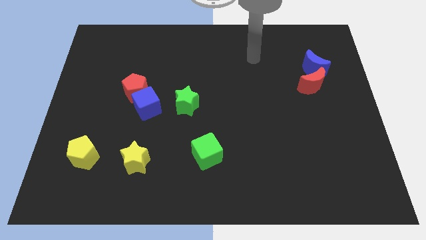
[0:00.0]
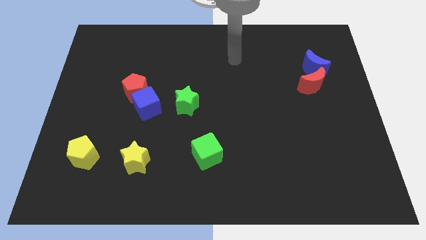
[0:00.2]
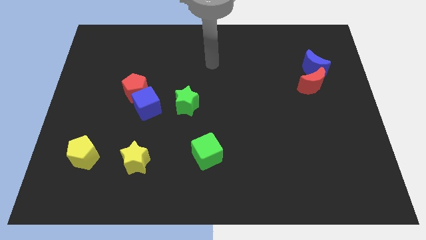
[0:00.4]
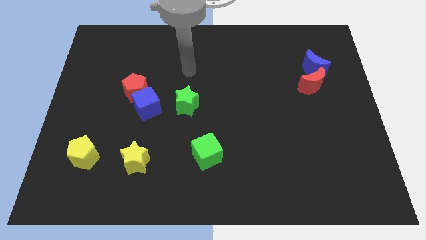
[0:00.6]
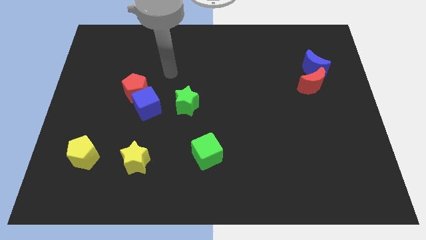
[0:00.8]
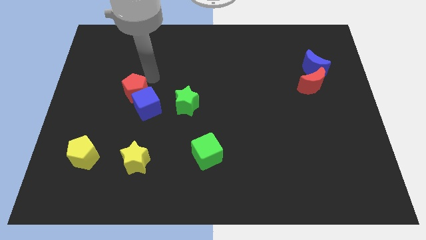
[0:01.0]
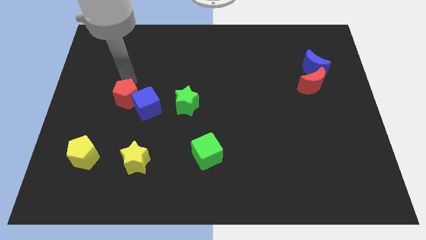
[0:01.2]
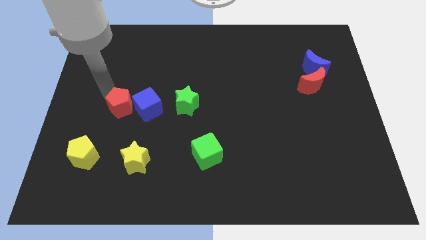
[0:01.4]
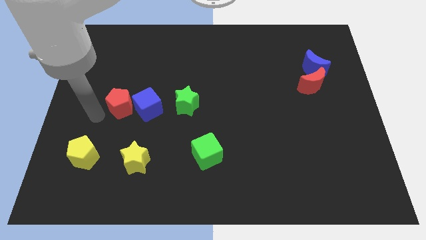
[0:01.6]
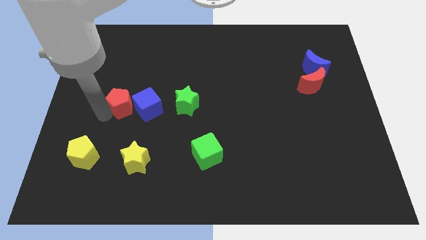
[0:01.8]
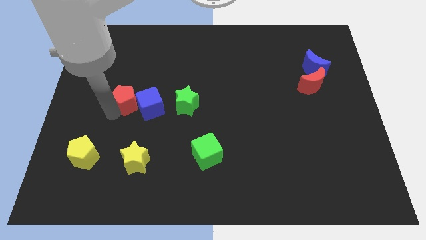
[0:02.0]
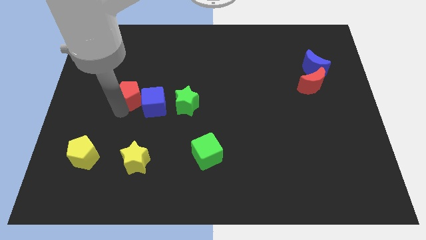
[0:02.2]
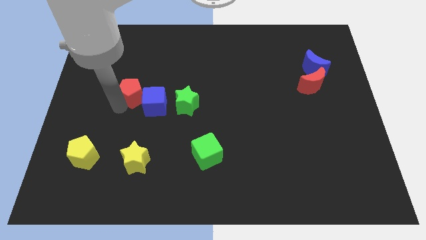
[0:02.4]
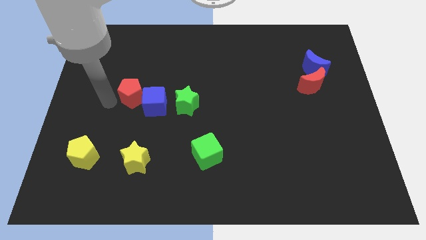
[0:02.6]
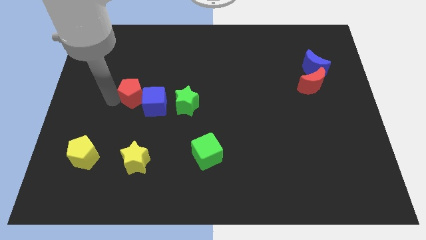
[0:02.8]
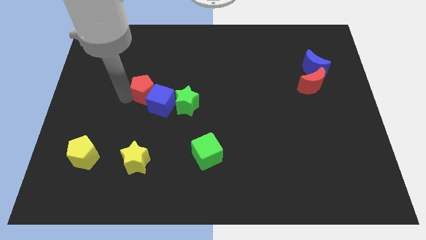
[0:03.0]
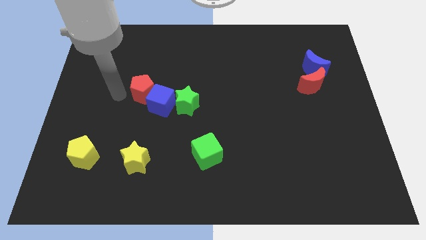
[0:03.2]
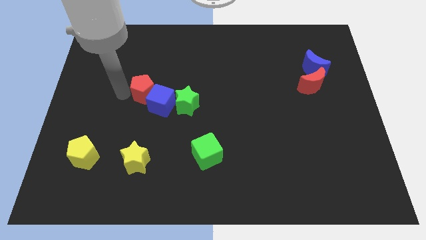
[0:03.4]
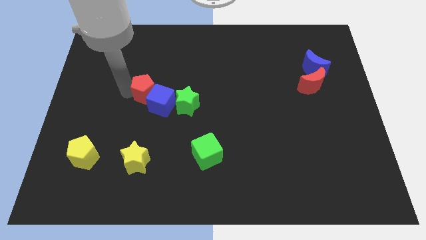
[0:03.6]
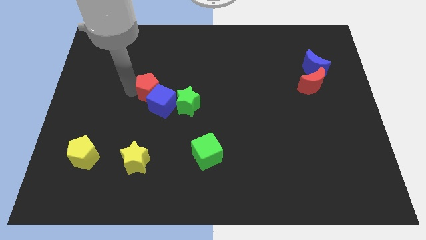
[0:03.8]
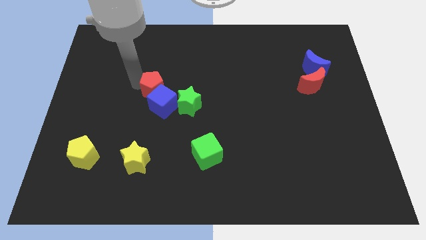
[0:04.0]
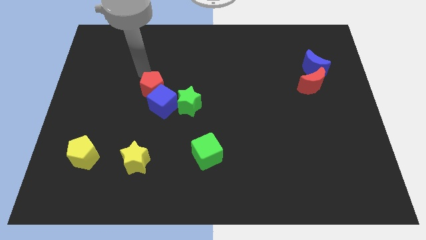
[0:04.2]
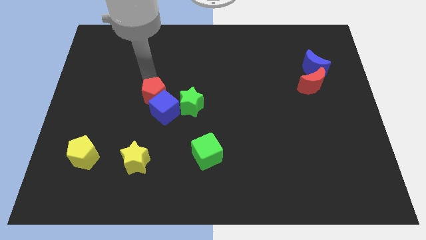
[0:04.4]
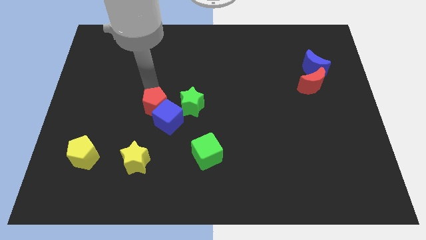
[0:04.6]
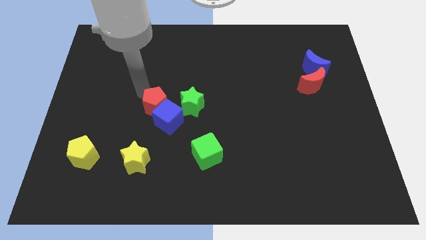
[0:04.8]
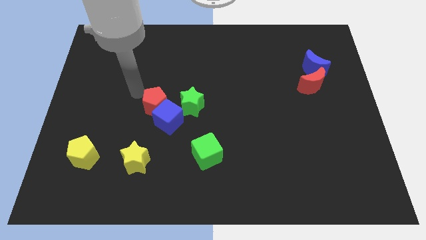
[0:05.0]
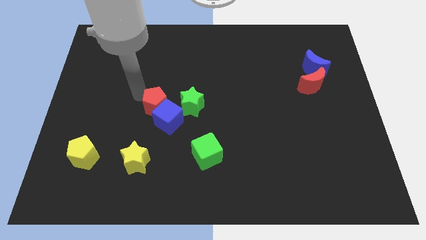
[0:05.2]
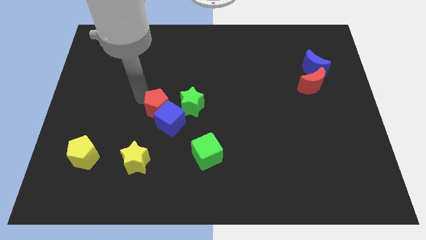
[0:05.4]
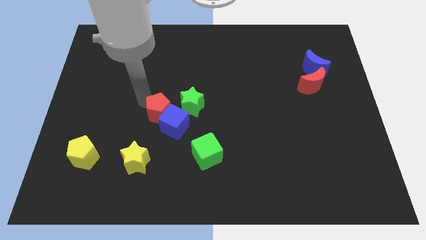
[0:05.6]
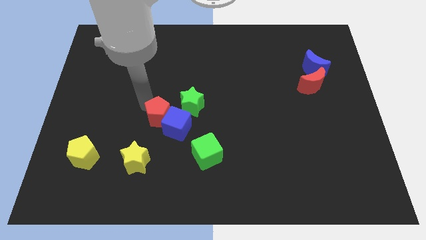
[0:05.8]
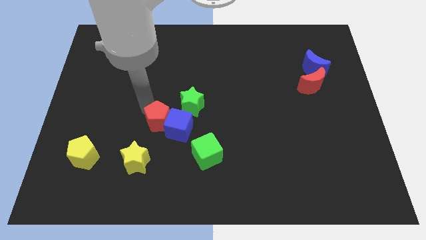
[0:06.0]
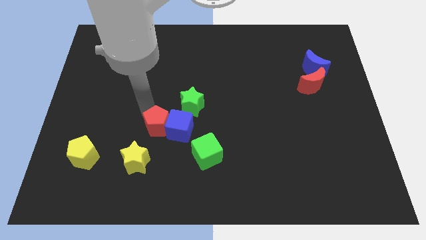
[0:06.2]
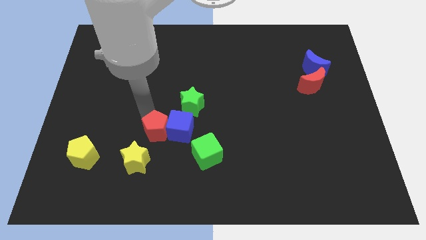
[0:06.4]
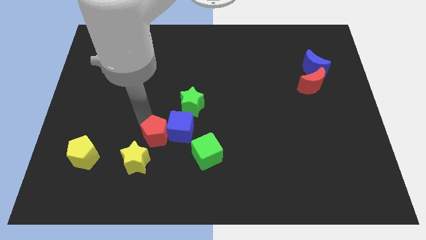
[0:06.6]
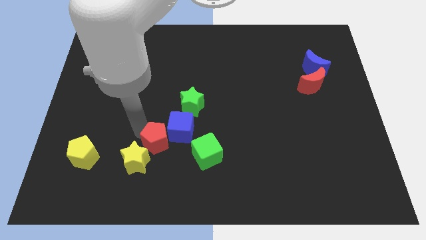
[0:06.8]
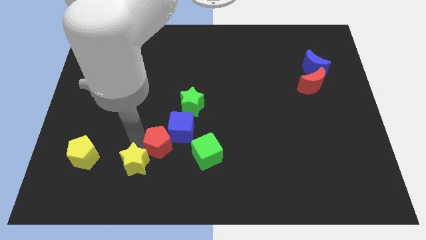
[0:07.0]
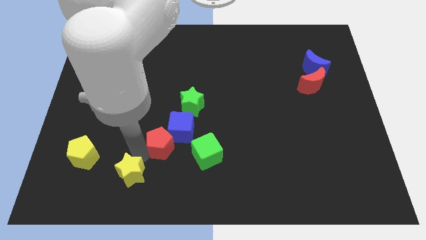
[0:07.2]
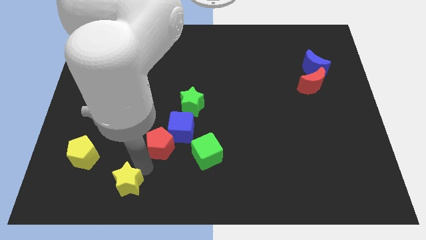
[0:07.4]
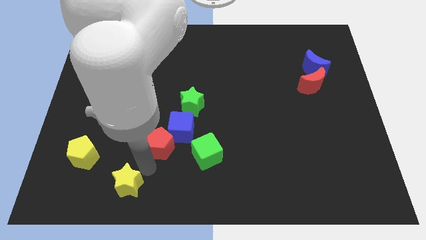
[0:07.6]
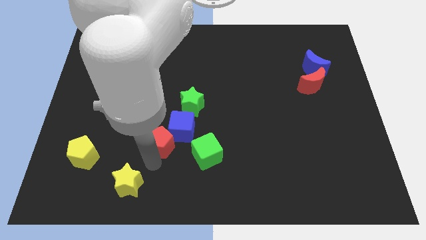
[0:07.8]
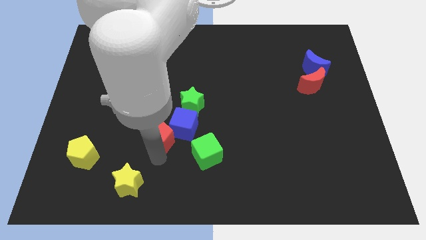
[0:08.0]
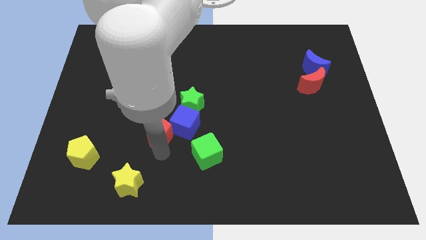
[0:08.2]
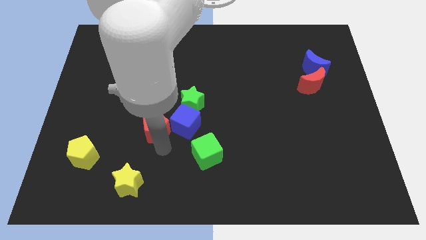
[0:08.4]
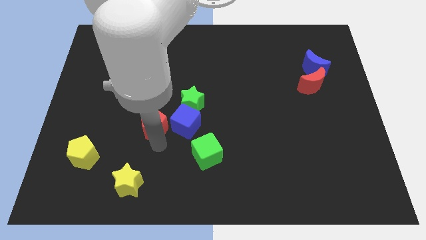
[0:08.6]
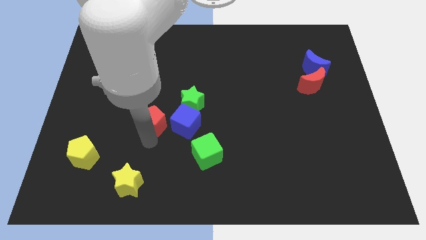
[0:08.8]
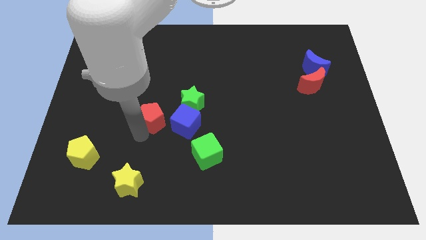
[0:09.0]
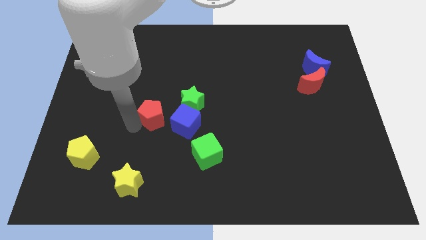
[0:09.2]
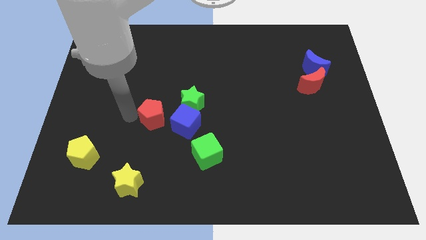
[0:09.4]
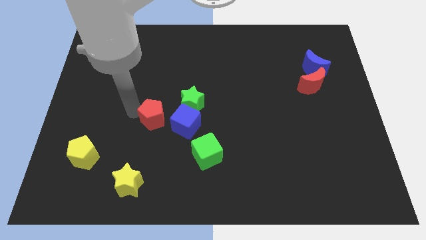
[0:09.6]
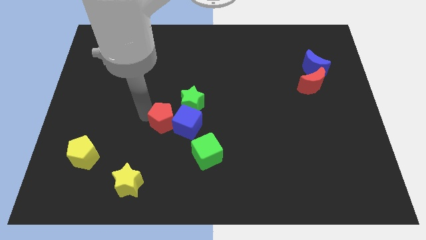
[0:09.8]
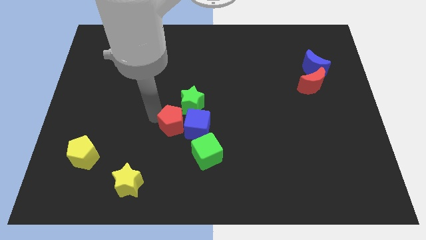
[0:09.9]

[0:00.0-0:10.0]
push the red pentagon below the green star
